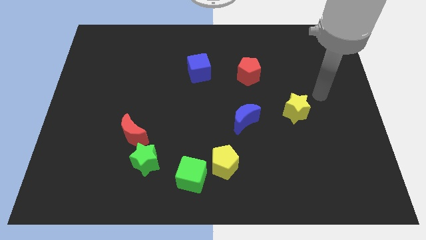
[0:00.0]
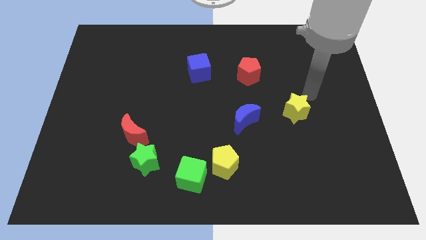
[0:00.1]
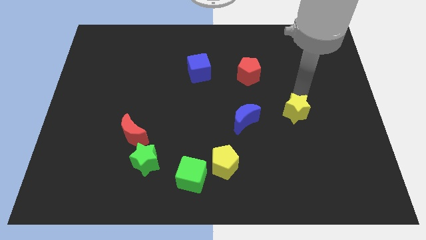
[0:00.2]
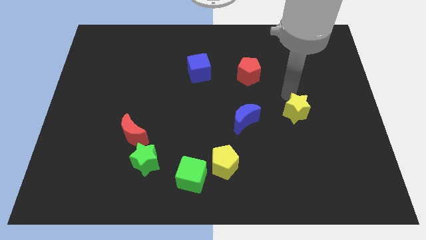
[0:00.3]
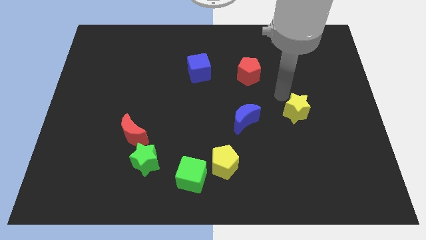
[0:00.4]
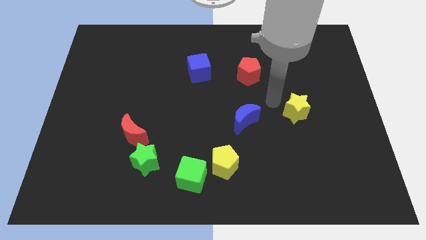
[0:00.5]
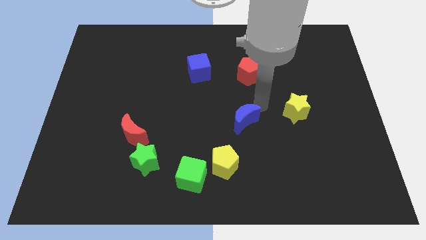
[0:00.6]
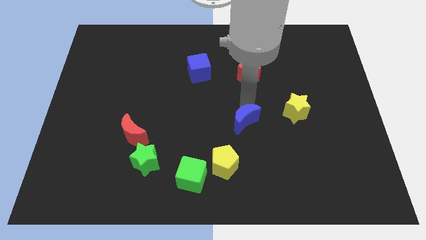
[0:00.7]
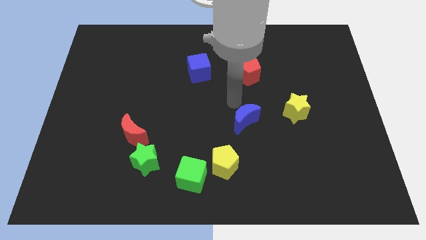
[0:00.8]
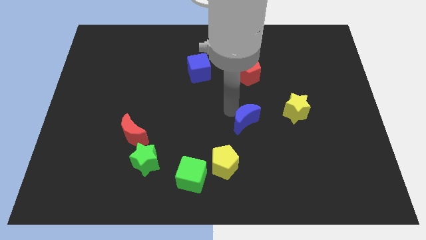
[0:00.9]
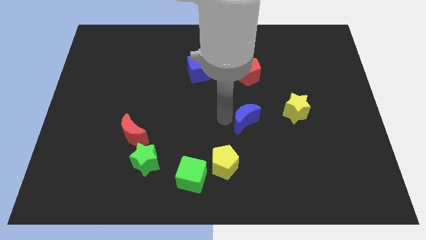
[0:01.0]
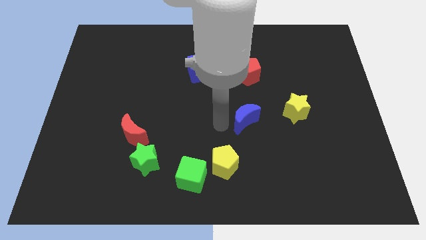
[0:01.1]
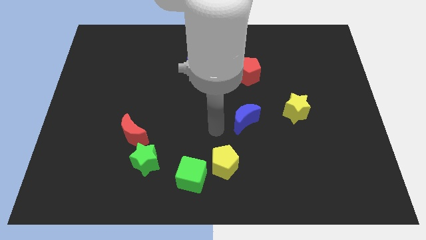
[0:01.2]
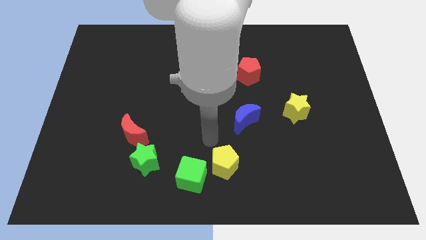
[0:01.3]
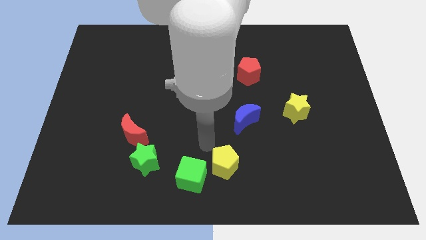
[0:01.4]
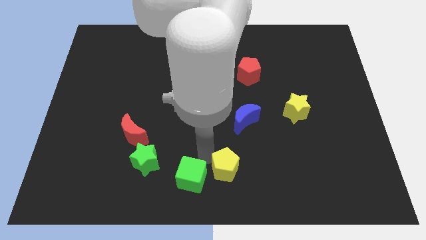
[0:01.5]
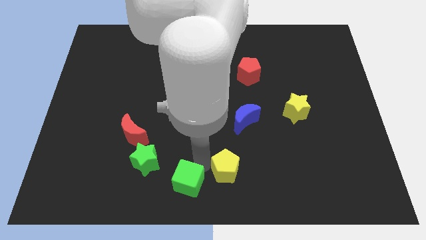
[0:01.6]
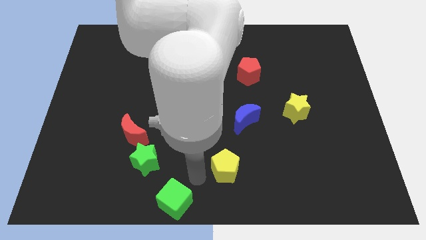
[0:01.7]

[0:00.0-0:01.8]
separate the yellow pentagon from the green cube

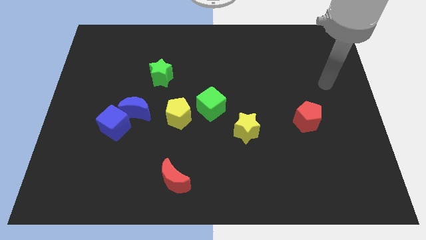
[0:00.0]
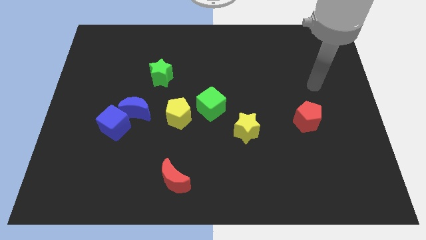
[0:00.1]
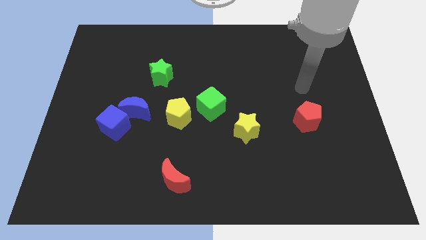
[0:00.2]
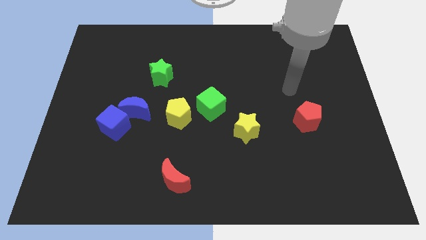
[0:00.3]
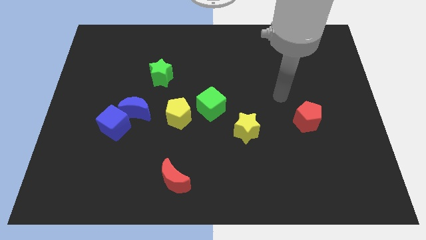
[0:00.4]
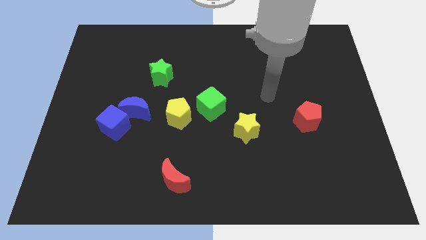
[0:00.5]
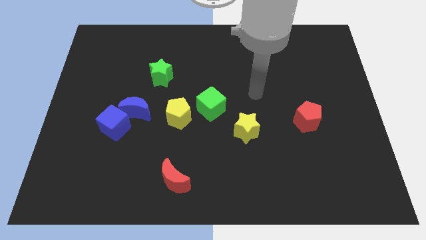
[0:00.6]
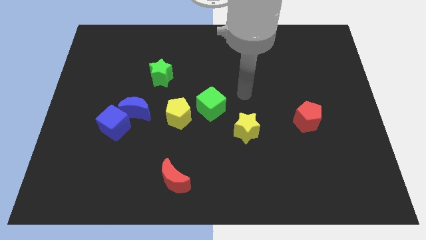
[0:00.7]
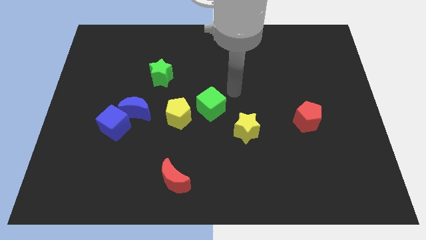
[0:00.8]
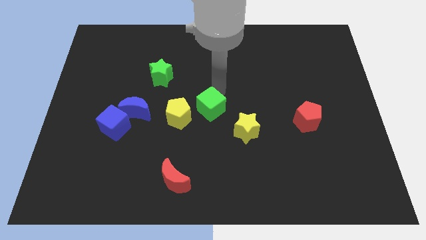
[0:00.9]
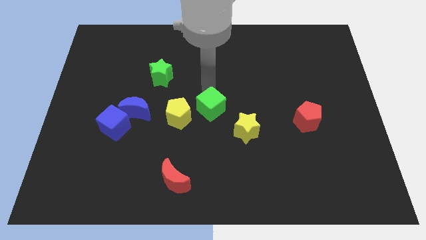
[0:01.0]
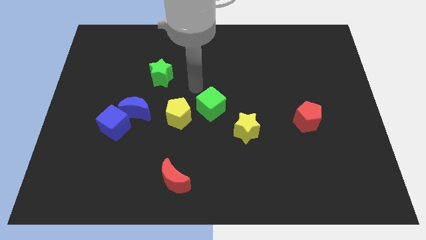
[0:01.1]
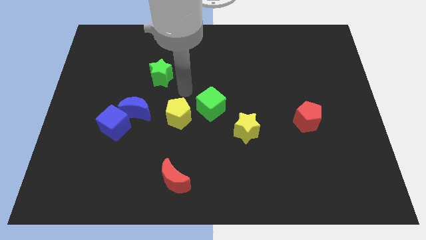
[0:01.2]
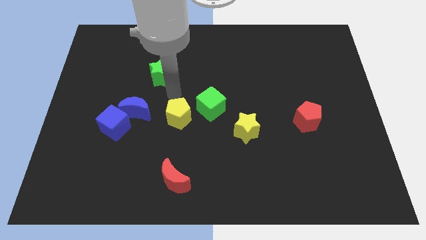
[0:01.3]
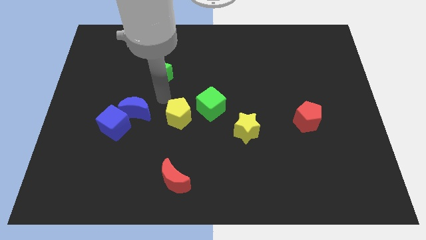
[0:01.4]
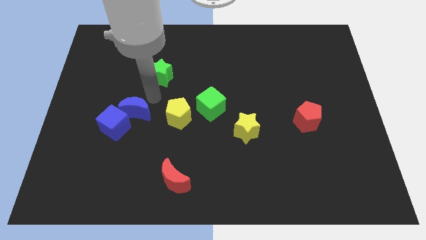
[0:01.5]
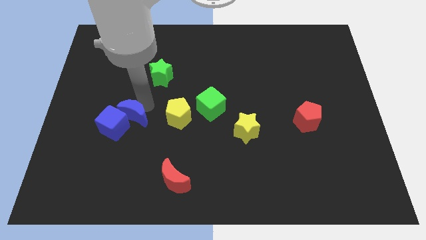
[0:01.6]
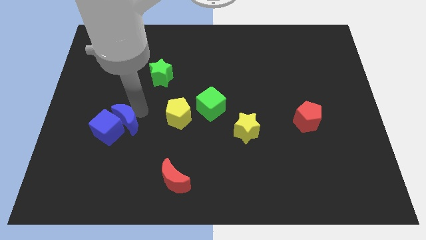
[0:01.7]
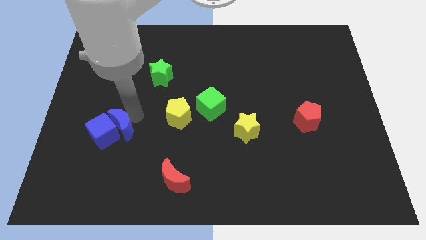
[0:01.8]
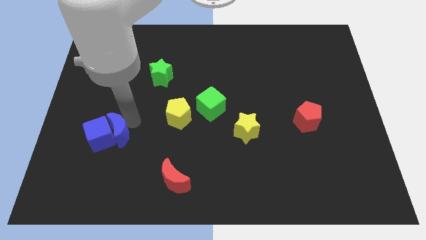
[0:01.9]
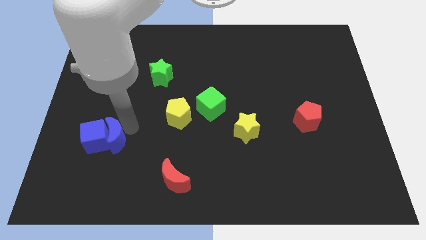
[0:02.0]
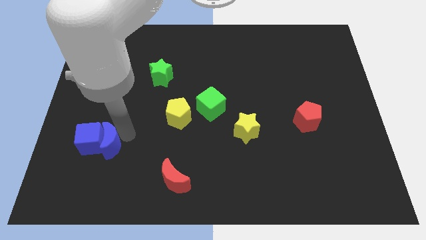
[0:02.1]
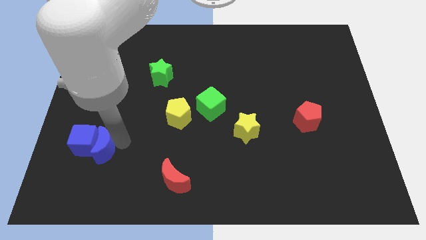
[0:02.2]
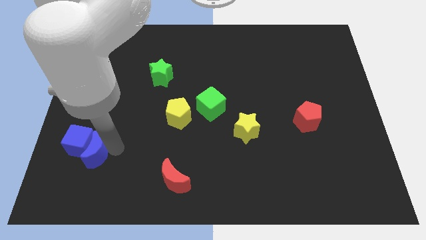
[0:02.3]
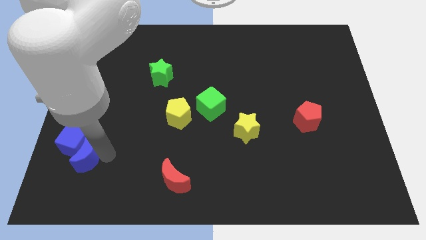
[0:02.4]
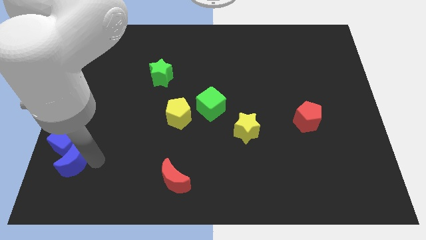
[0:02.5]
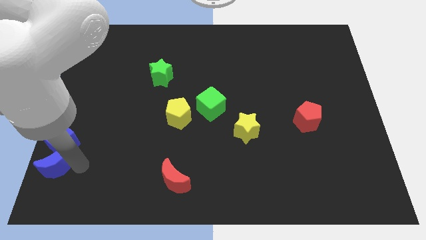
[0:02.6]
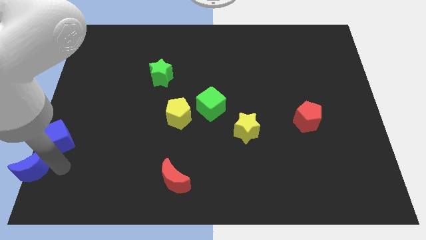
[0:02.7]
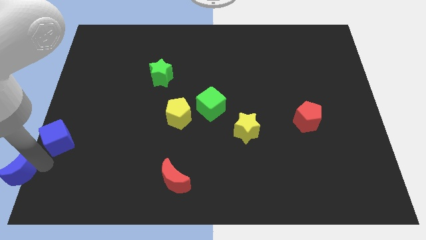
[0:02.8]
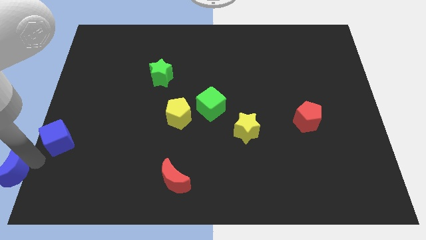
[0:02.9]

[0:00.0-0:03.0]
pull the blue cube apart from the blue moon

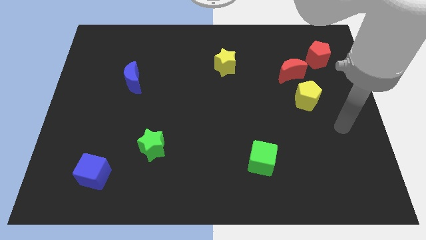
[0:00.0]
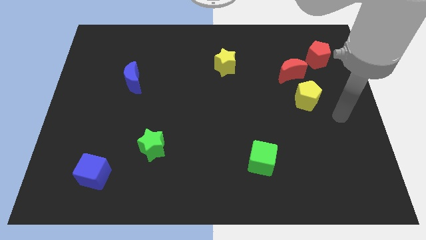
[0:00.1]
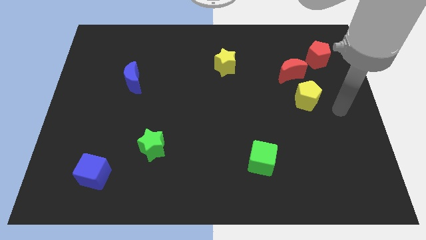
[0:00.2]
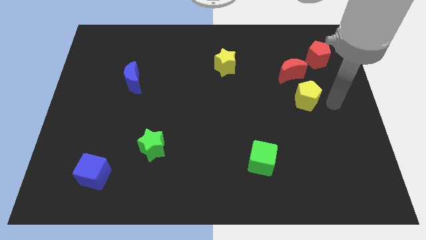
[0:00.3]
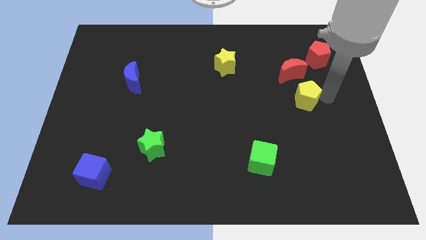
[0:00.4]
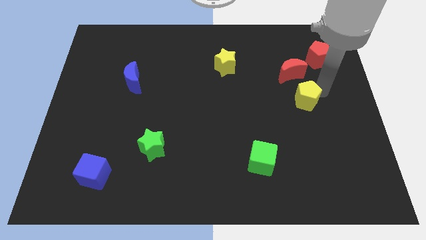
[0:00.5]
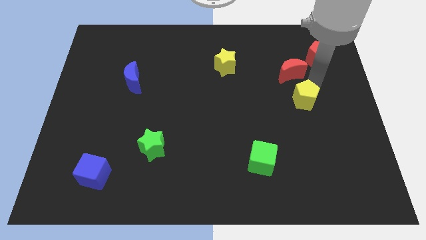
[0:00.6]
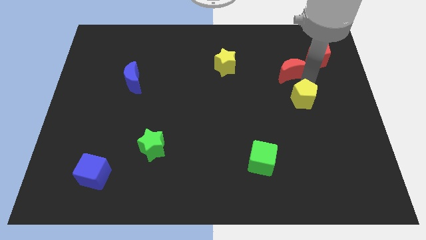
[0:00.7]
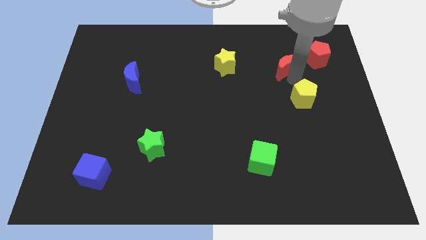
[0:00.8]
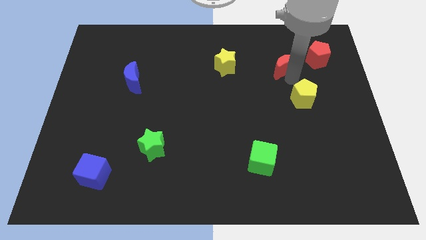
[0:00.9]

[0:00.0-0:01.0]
separate the yellow pentagon from the red moon

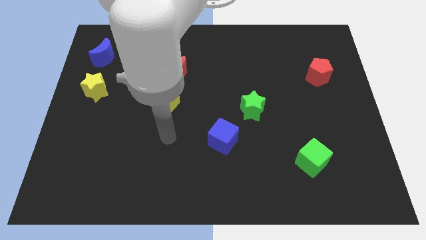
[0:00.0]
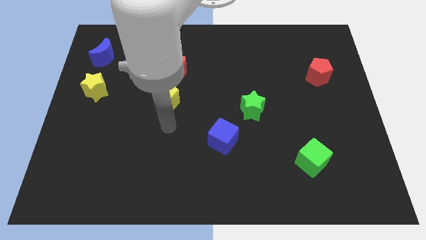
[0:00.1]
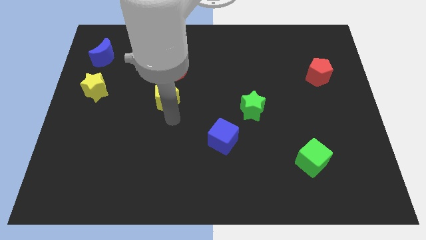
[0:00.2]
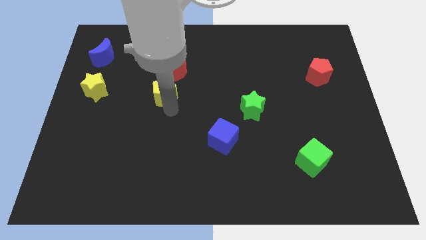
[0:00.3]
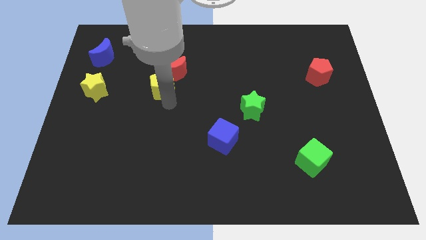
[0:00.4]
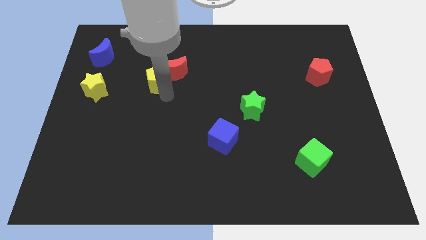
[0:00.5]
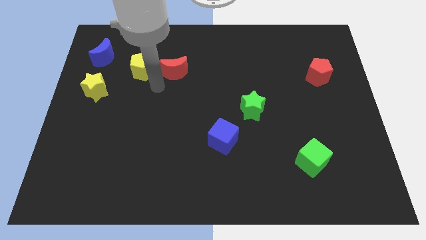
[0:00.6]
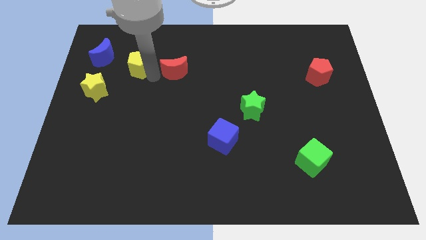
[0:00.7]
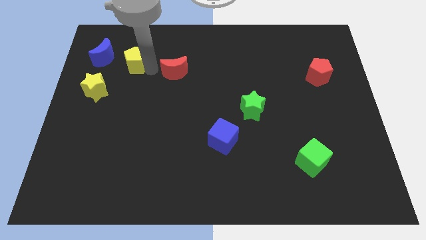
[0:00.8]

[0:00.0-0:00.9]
move the red moon away from the yellow pentagon

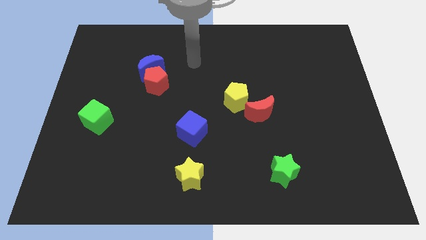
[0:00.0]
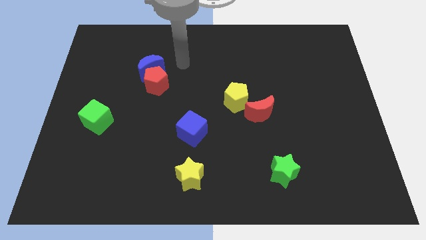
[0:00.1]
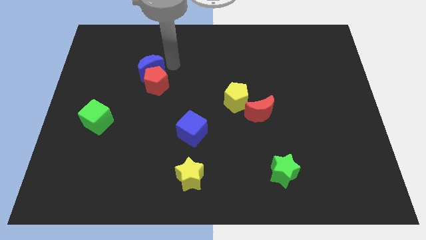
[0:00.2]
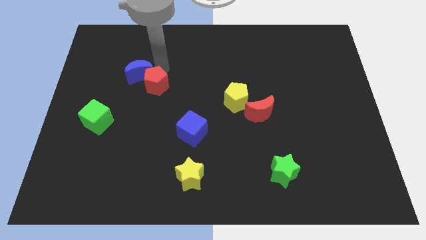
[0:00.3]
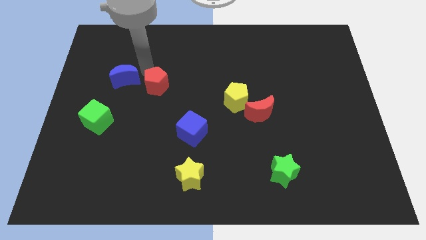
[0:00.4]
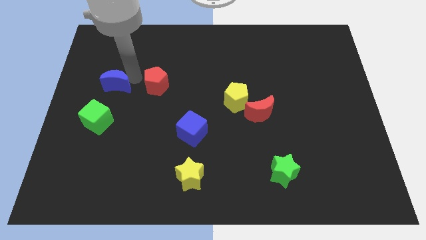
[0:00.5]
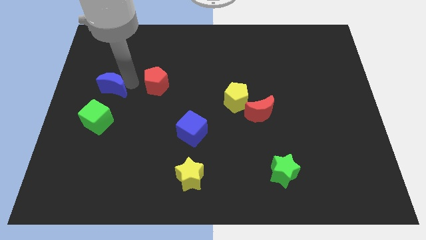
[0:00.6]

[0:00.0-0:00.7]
separate the red pentagon from the blue moon

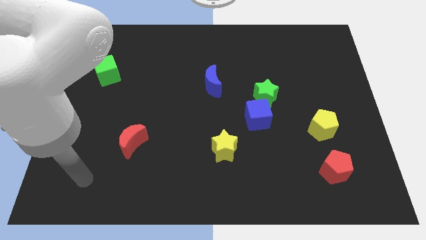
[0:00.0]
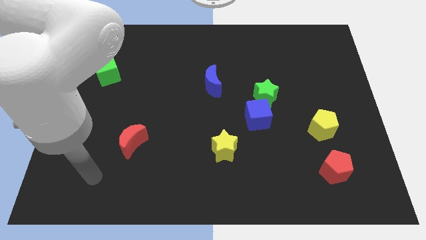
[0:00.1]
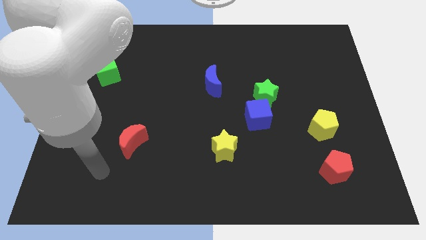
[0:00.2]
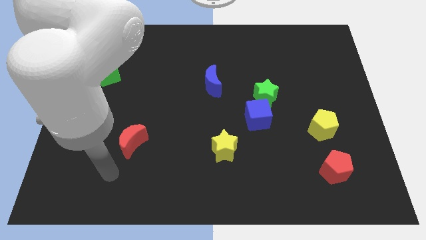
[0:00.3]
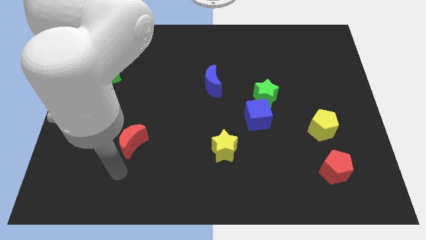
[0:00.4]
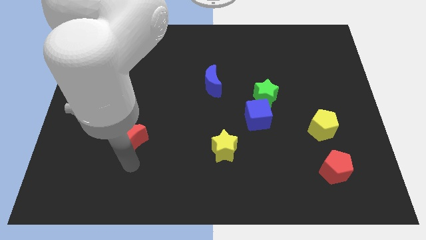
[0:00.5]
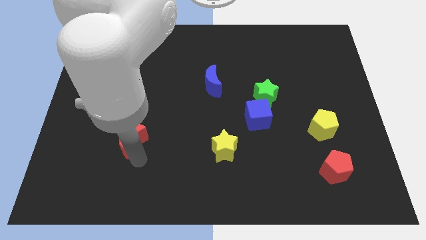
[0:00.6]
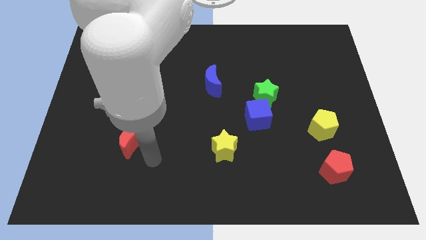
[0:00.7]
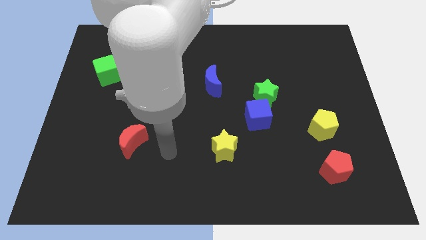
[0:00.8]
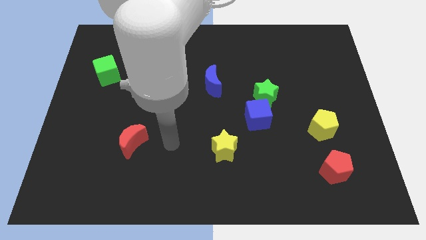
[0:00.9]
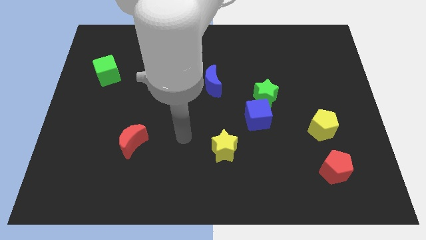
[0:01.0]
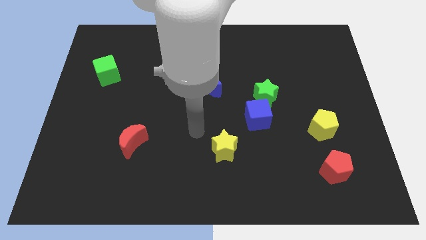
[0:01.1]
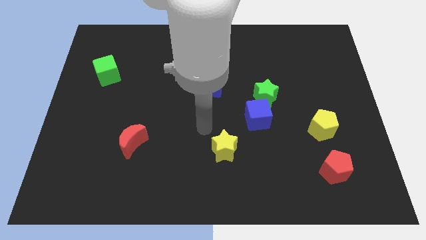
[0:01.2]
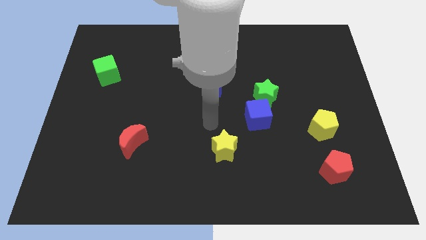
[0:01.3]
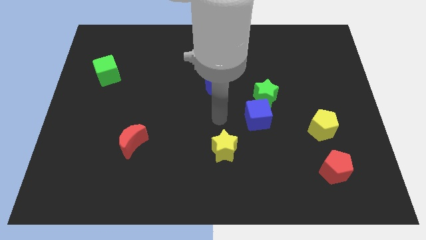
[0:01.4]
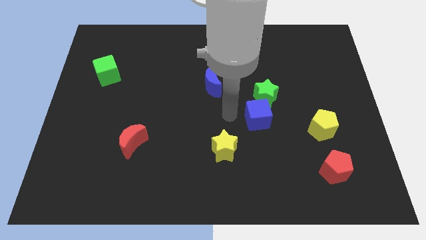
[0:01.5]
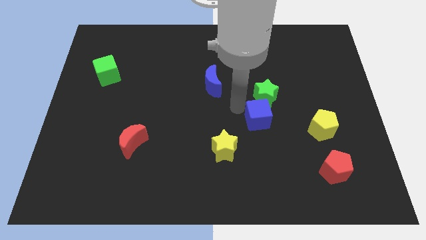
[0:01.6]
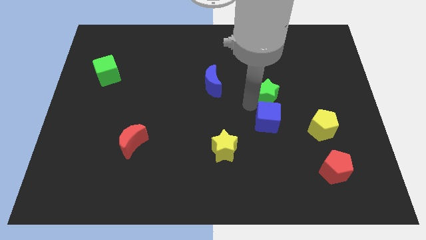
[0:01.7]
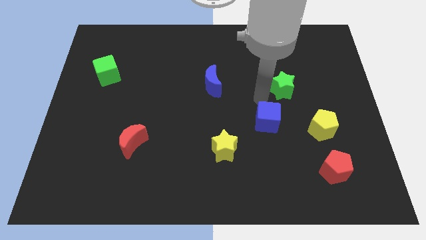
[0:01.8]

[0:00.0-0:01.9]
separate the blue cube from the green star
